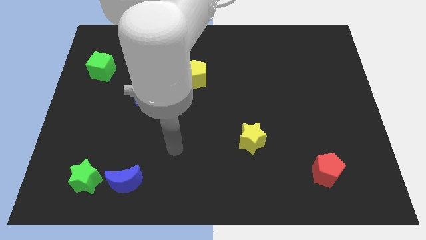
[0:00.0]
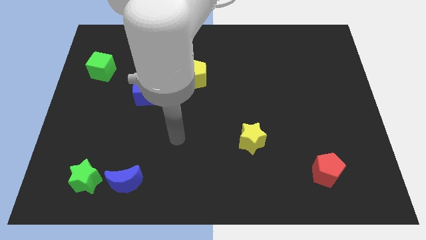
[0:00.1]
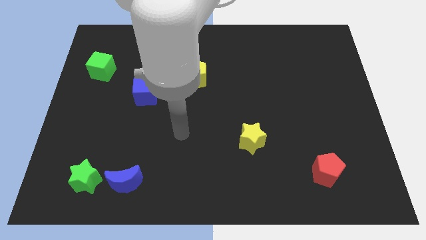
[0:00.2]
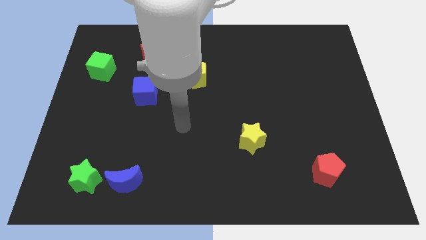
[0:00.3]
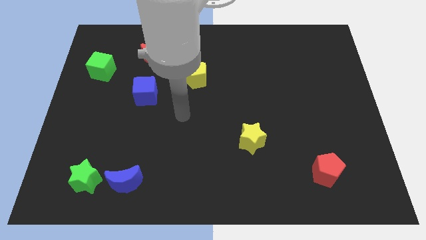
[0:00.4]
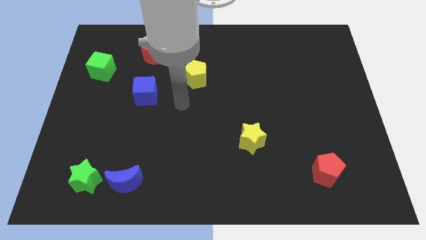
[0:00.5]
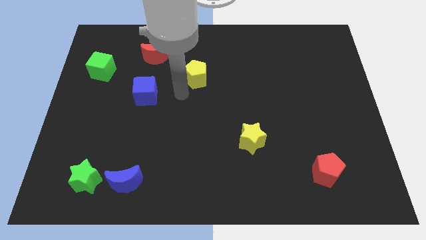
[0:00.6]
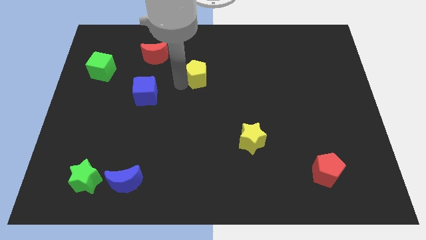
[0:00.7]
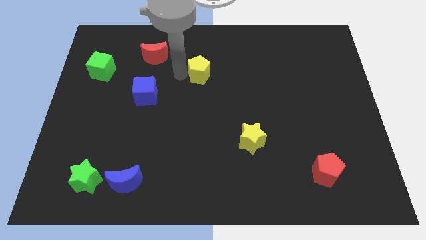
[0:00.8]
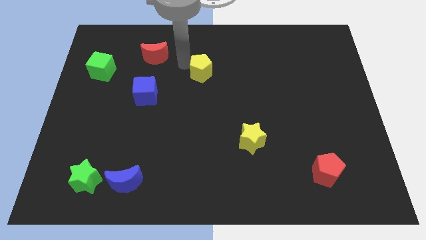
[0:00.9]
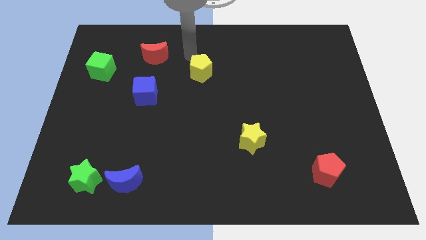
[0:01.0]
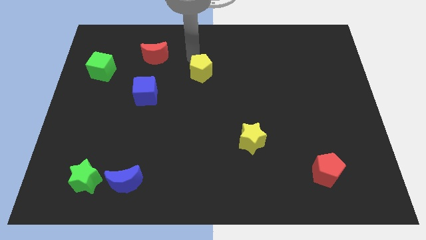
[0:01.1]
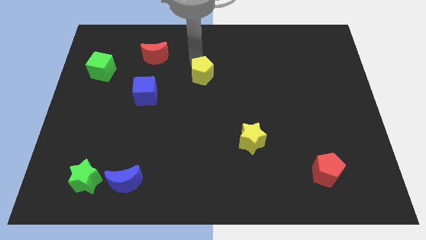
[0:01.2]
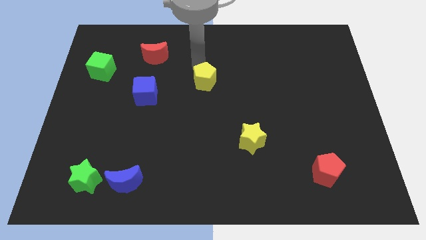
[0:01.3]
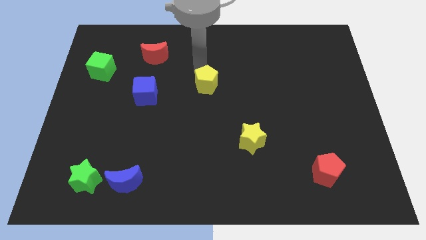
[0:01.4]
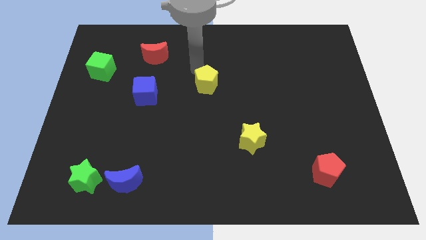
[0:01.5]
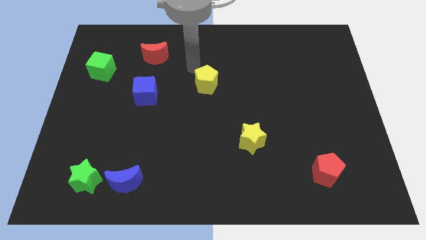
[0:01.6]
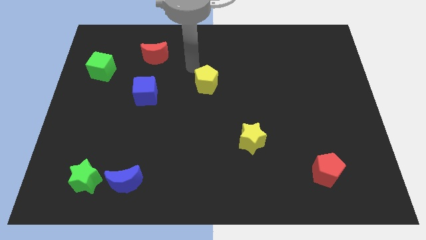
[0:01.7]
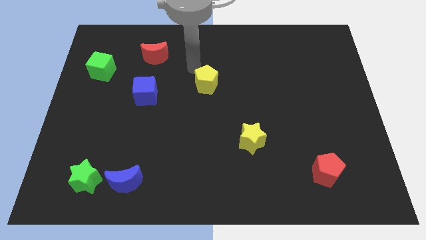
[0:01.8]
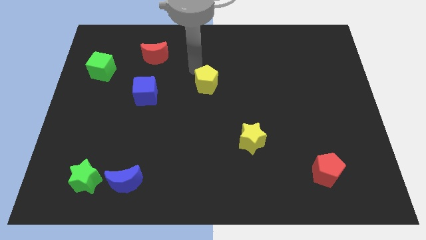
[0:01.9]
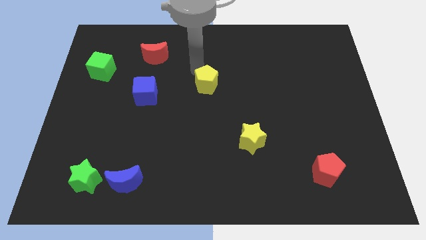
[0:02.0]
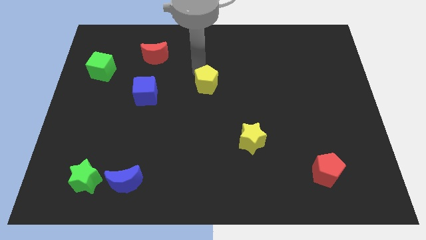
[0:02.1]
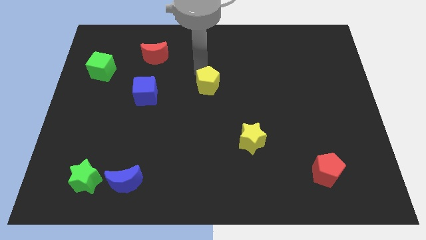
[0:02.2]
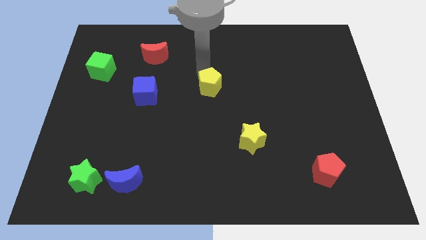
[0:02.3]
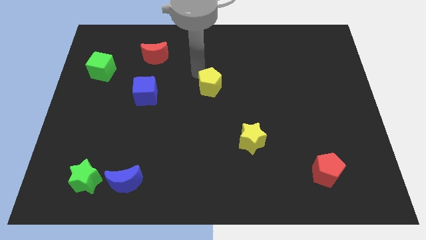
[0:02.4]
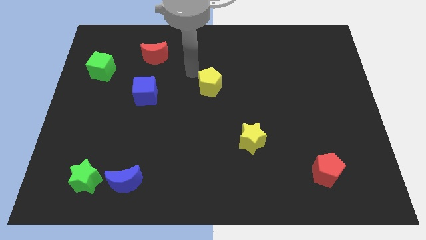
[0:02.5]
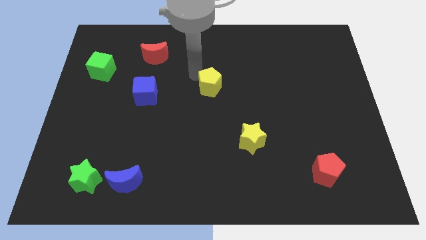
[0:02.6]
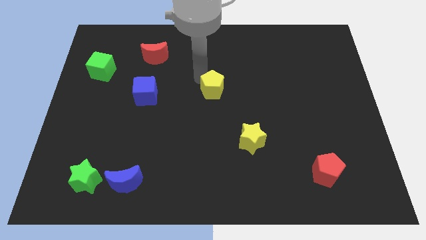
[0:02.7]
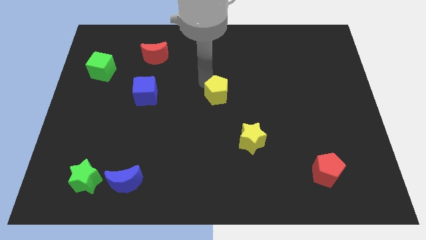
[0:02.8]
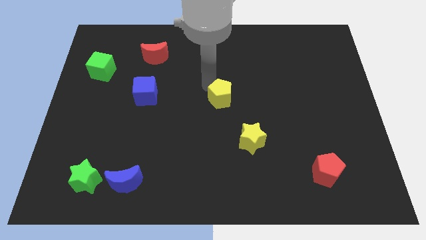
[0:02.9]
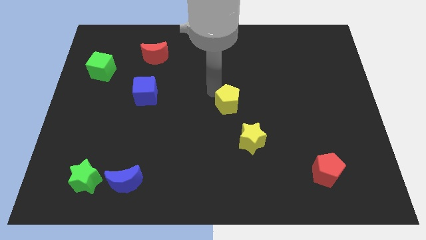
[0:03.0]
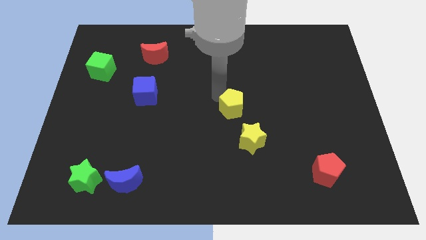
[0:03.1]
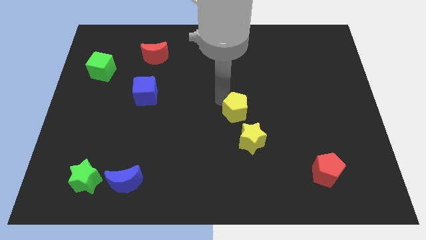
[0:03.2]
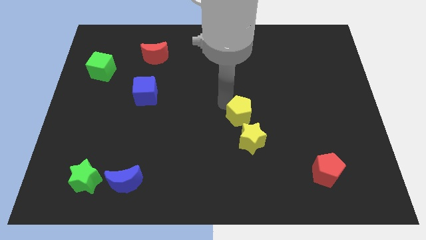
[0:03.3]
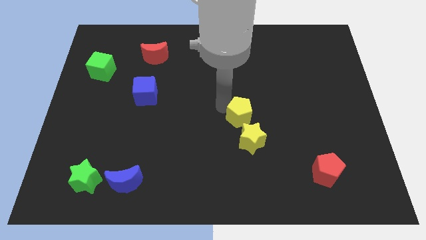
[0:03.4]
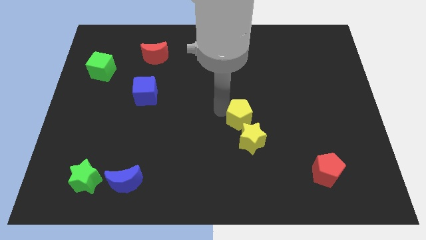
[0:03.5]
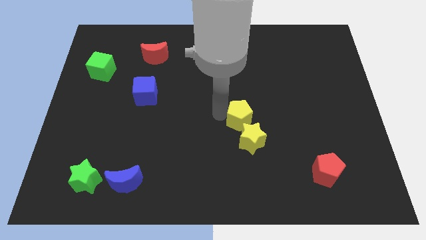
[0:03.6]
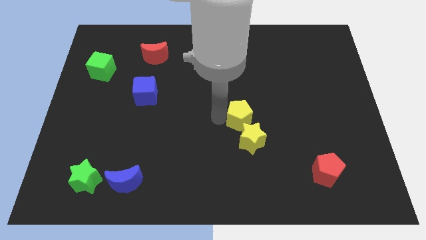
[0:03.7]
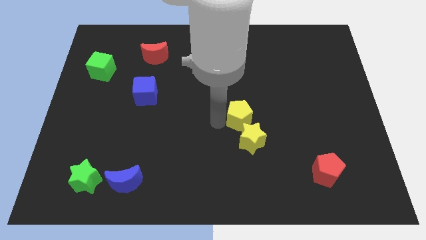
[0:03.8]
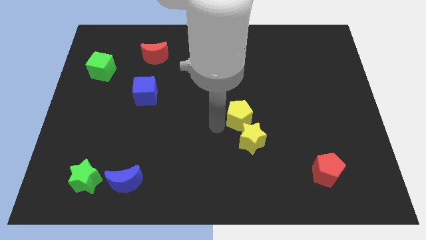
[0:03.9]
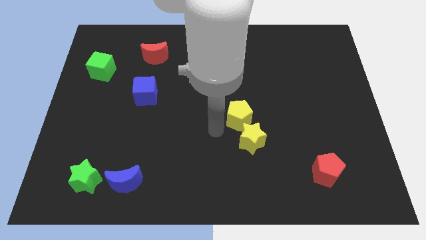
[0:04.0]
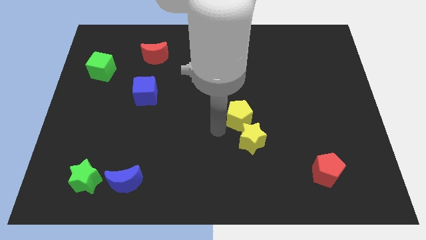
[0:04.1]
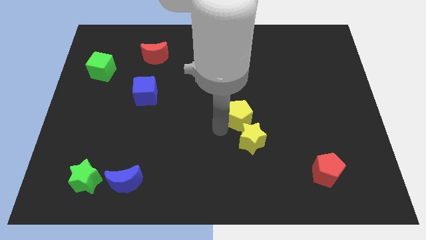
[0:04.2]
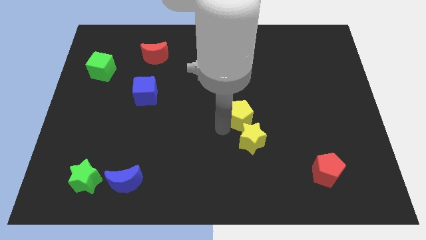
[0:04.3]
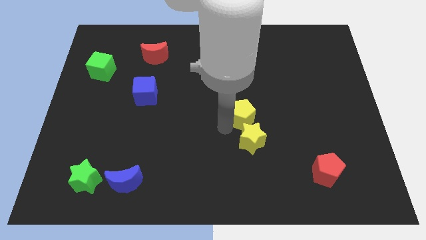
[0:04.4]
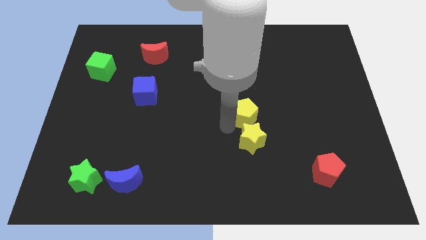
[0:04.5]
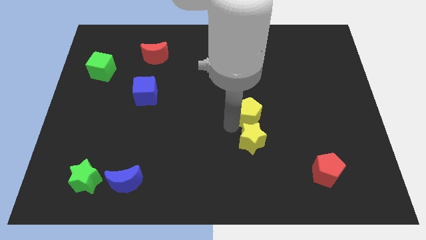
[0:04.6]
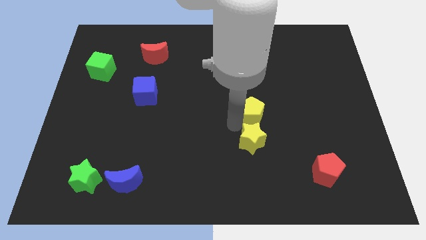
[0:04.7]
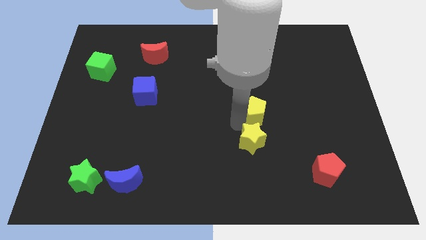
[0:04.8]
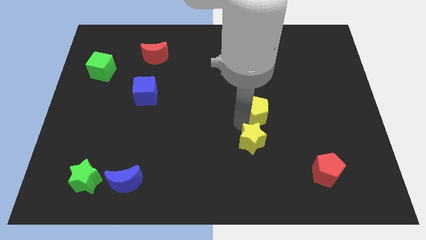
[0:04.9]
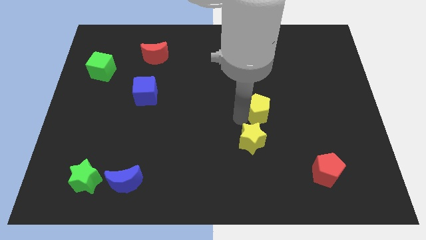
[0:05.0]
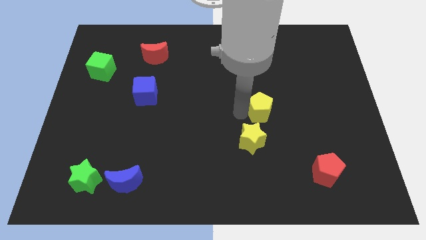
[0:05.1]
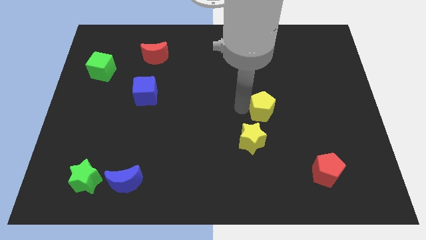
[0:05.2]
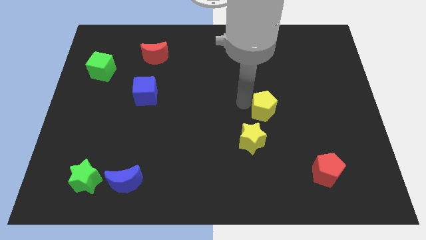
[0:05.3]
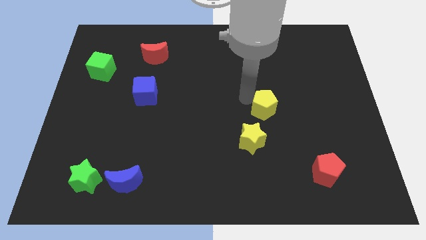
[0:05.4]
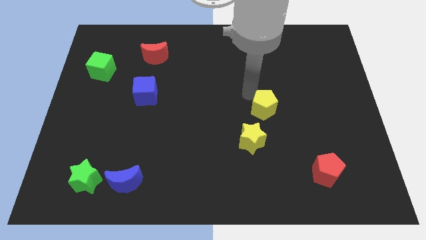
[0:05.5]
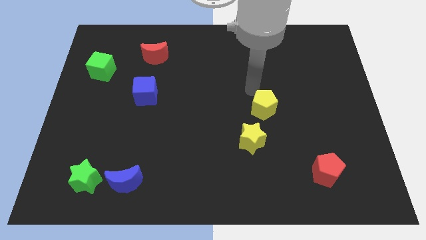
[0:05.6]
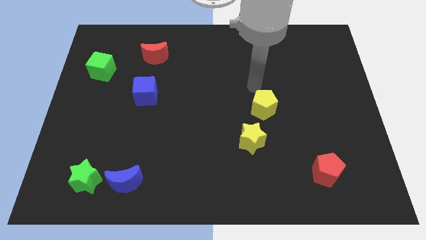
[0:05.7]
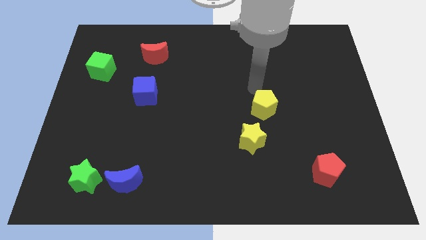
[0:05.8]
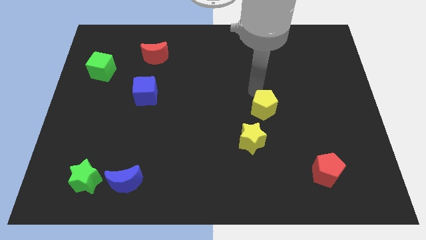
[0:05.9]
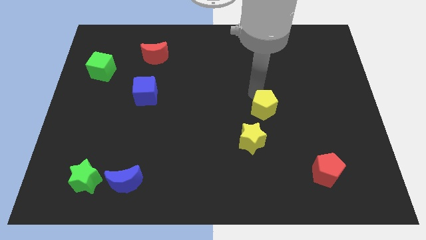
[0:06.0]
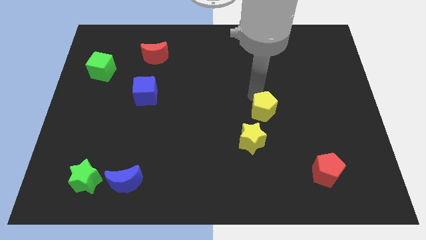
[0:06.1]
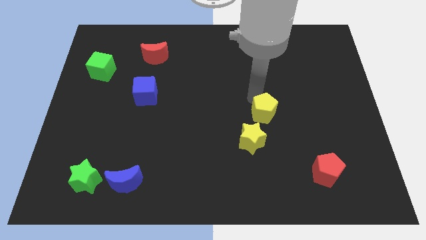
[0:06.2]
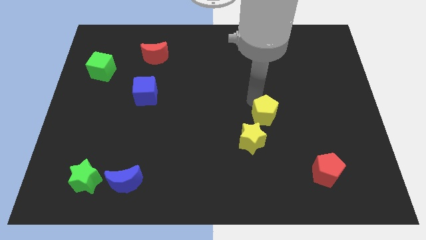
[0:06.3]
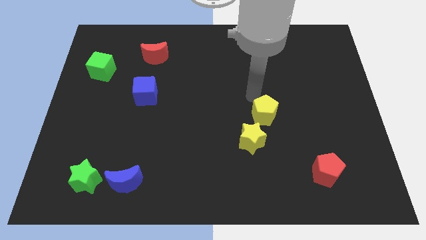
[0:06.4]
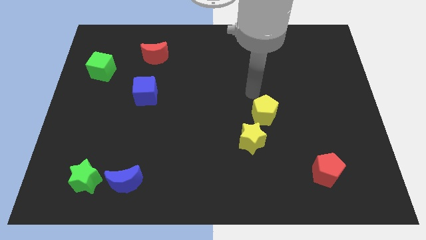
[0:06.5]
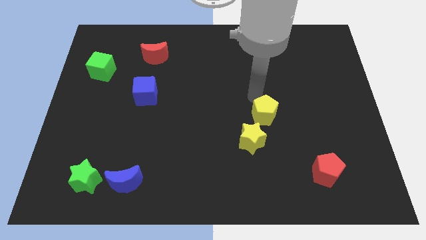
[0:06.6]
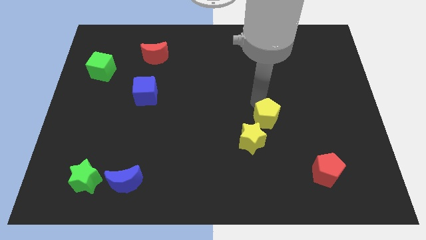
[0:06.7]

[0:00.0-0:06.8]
slide the yellow pentagon down and to the right

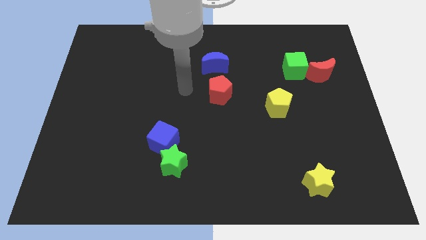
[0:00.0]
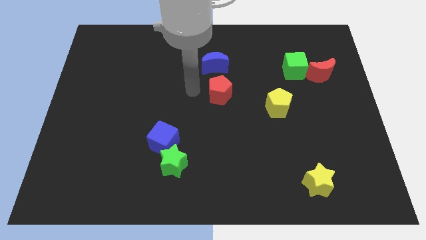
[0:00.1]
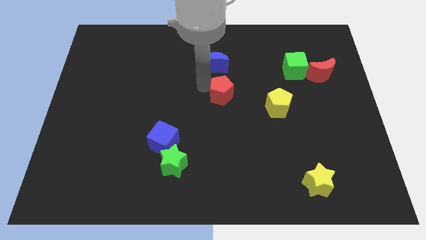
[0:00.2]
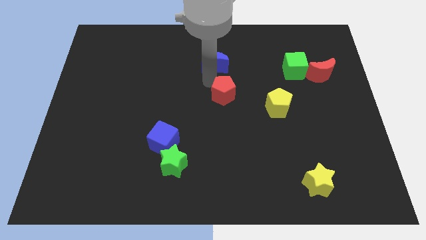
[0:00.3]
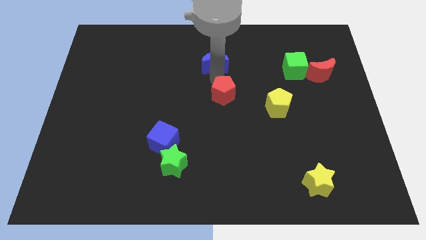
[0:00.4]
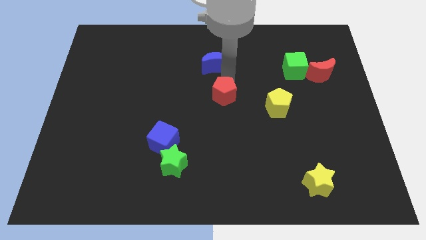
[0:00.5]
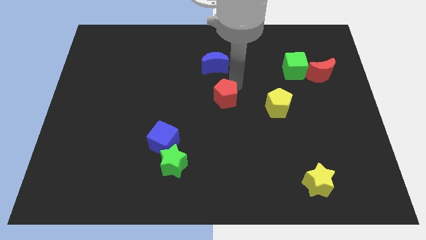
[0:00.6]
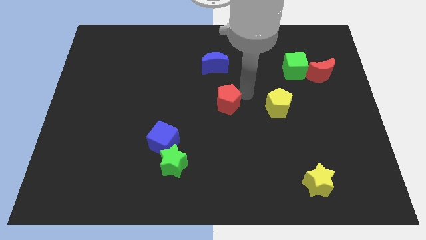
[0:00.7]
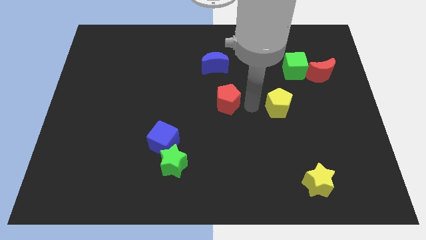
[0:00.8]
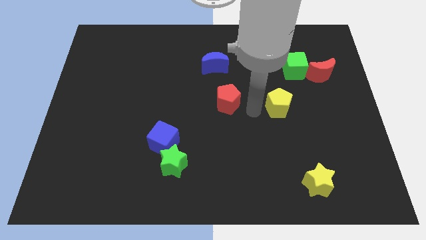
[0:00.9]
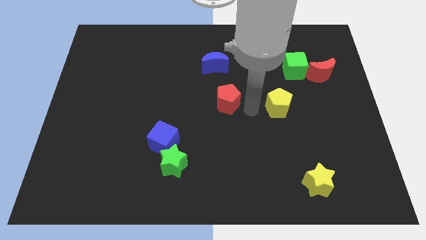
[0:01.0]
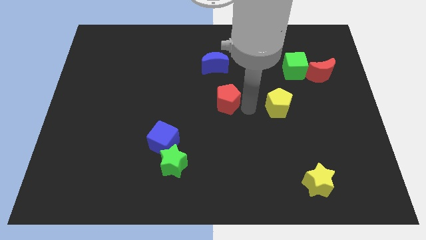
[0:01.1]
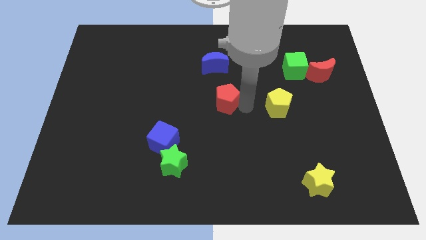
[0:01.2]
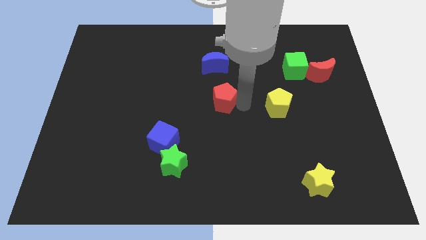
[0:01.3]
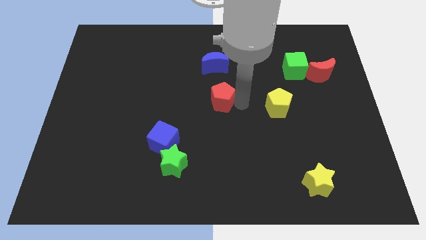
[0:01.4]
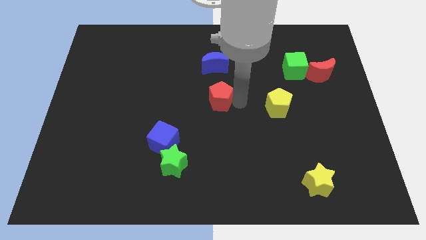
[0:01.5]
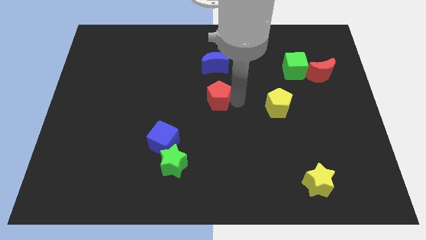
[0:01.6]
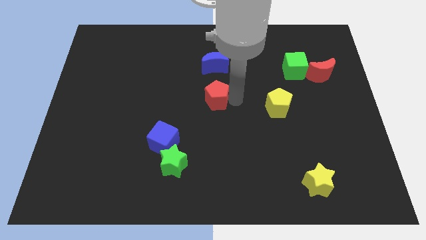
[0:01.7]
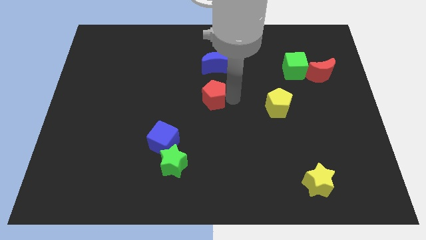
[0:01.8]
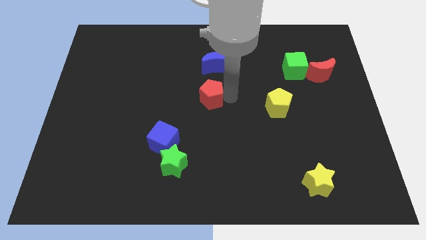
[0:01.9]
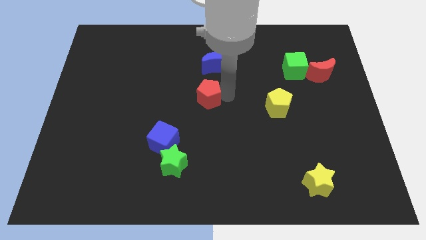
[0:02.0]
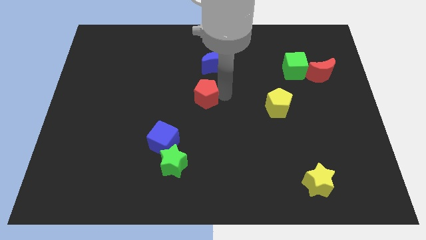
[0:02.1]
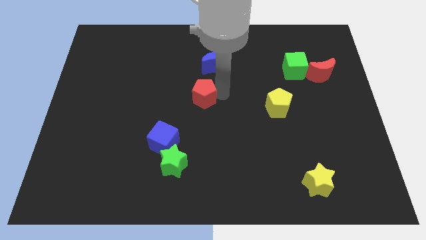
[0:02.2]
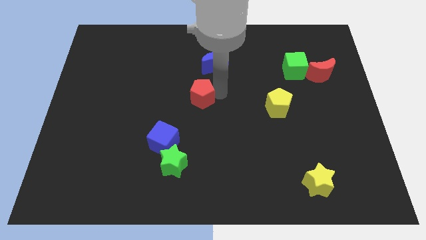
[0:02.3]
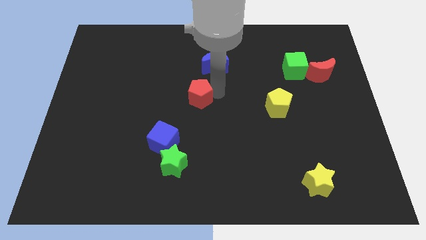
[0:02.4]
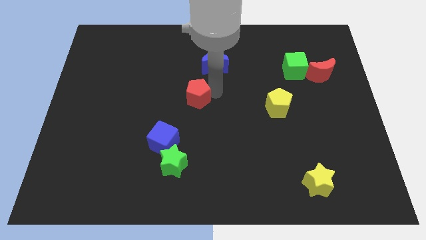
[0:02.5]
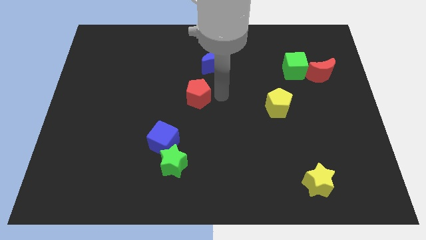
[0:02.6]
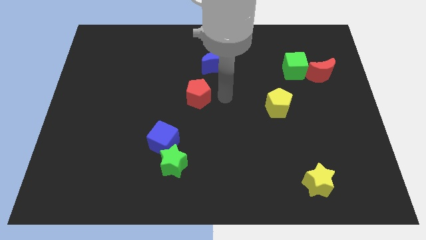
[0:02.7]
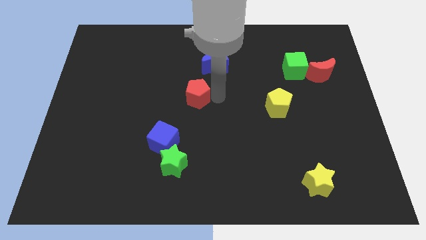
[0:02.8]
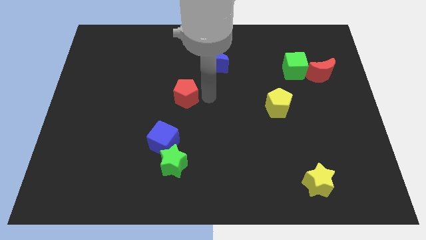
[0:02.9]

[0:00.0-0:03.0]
slightly slide the red pentagon to the left
